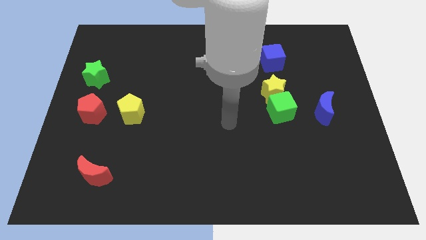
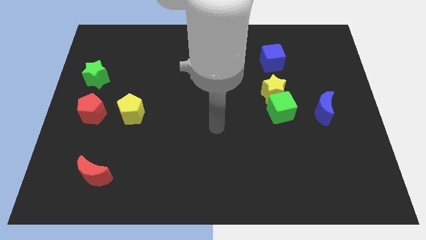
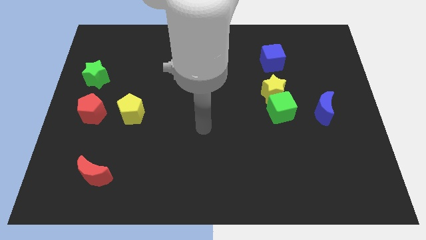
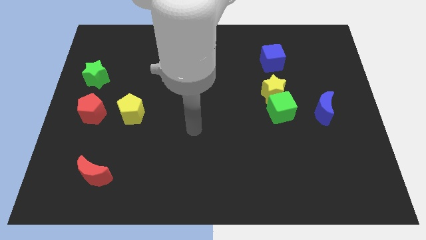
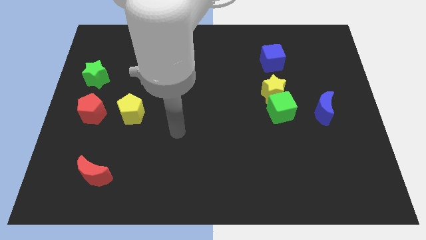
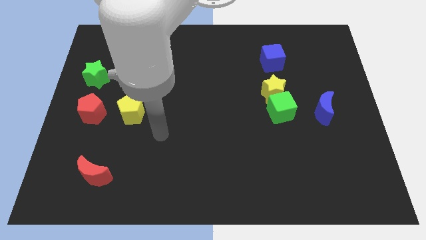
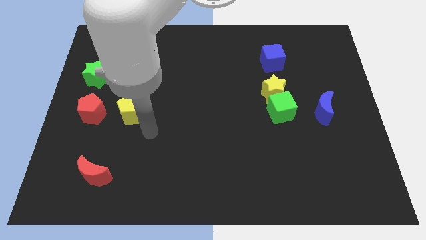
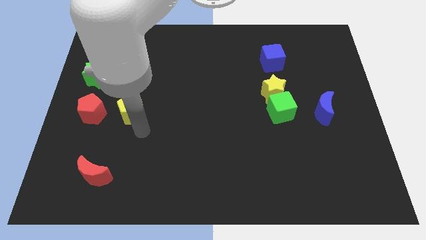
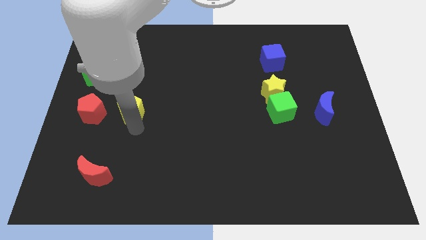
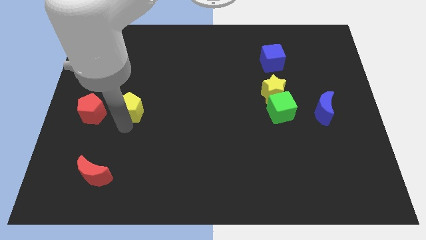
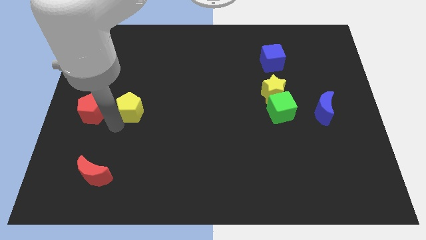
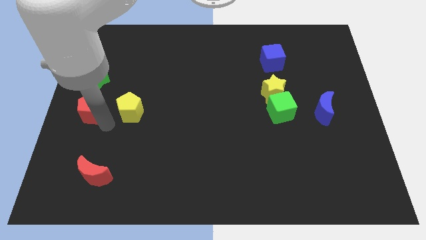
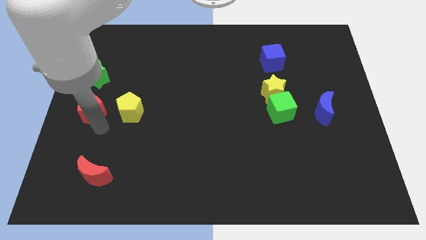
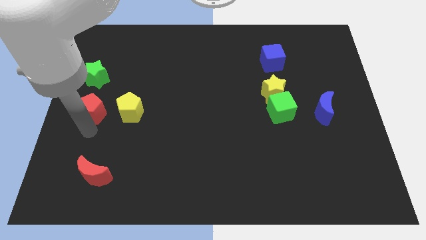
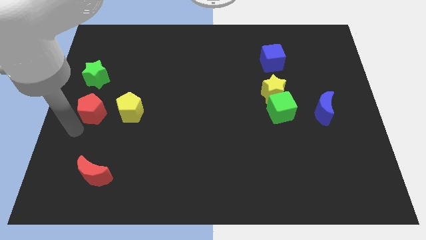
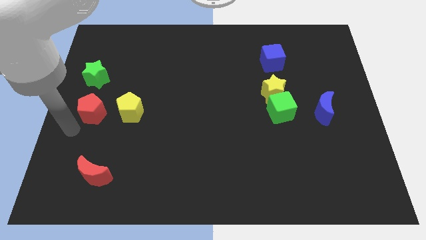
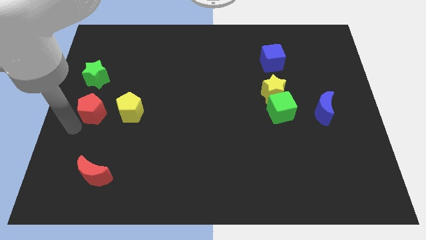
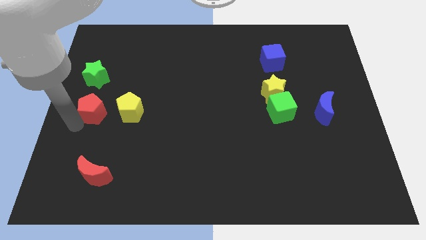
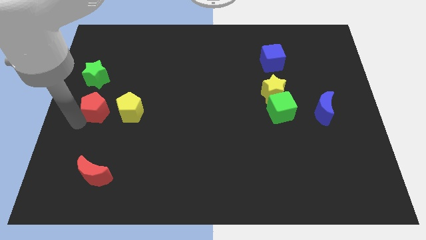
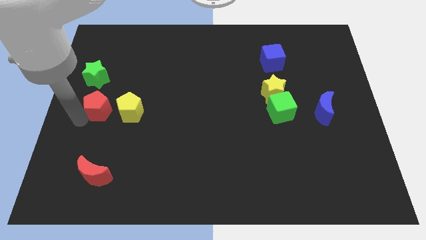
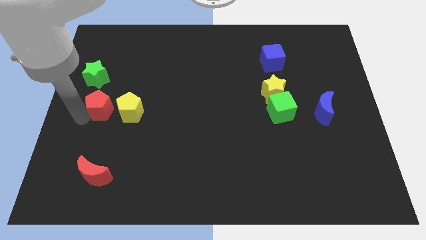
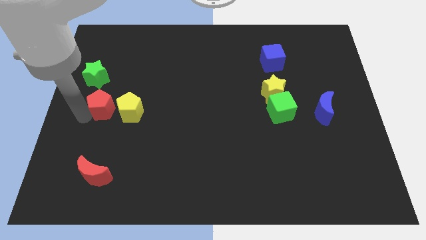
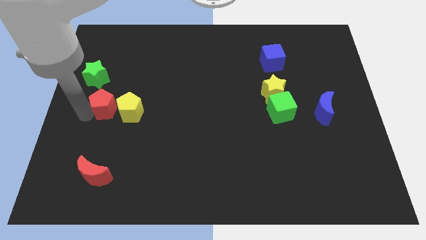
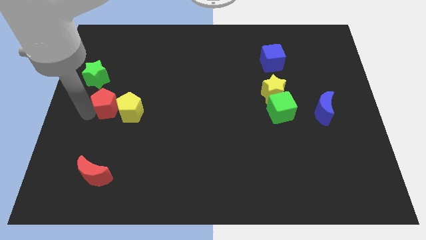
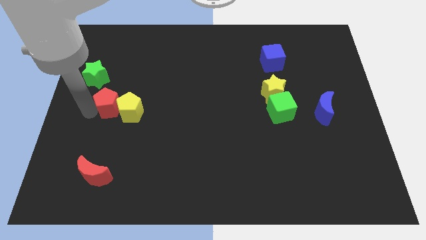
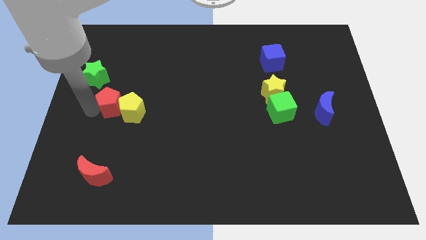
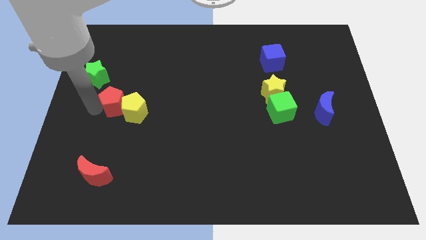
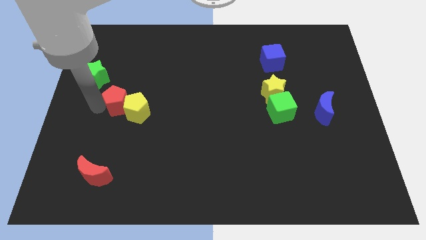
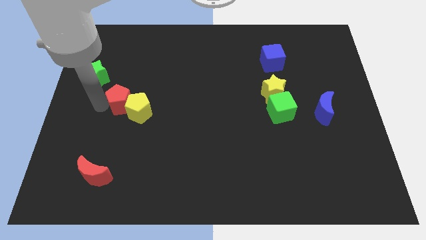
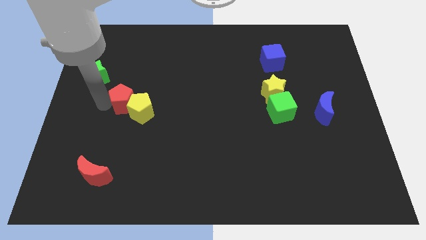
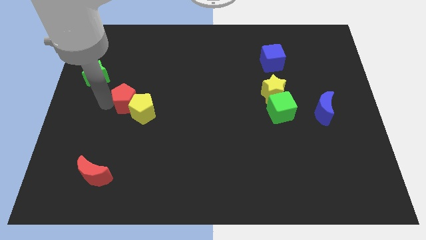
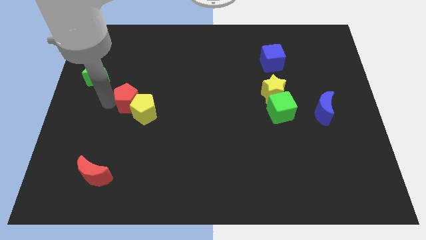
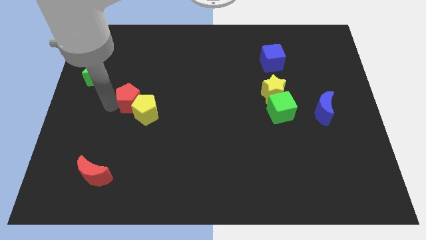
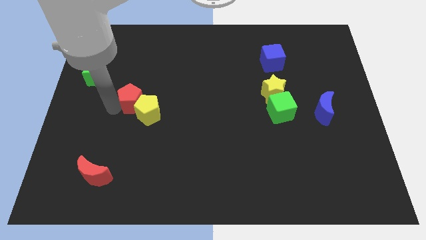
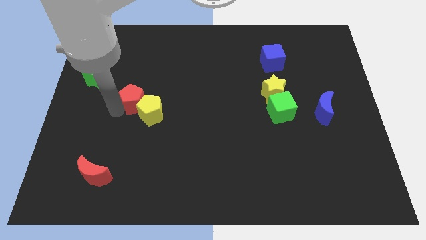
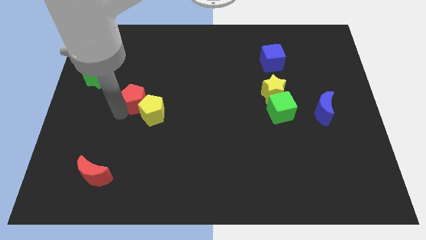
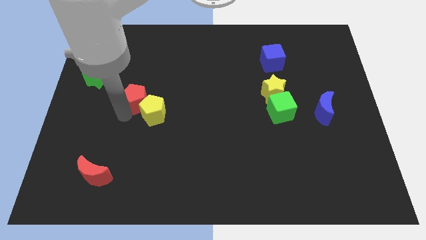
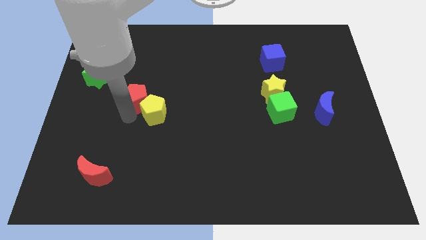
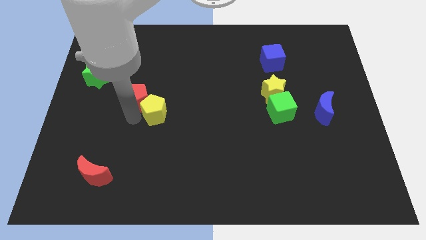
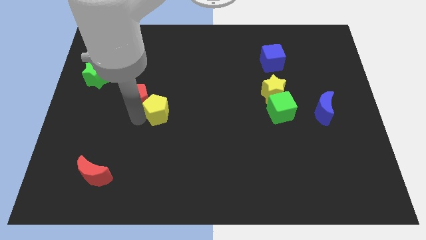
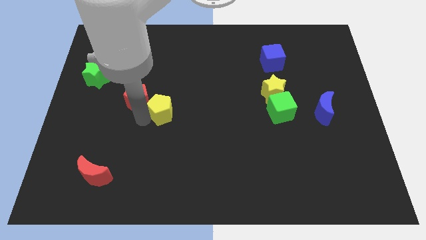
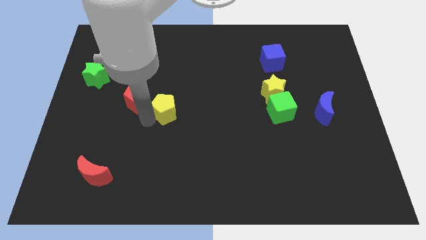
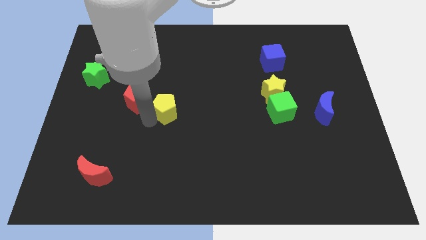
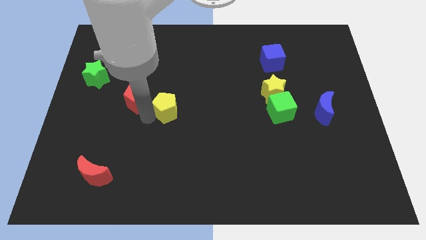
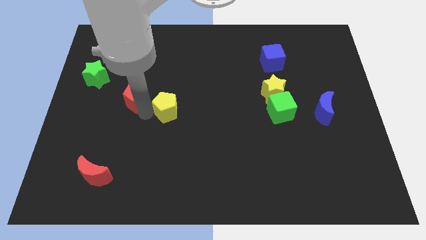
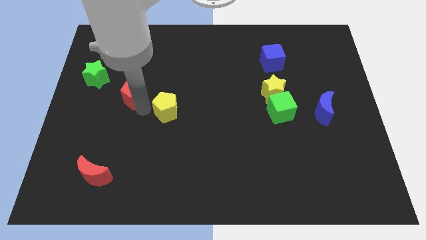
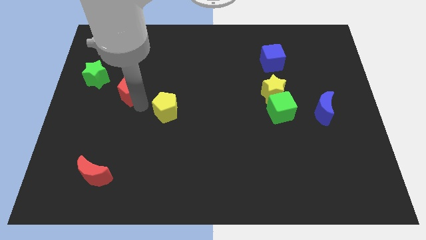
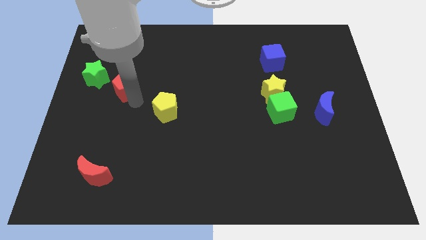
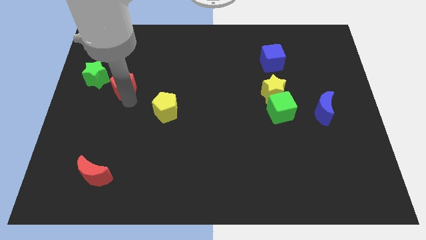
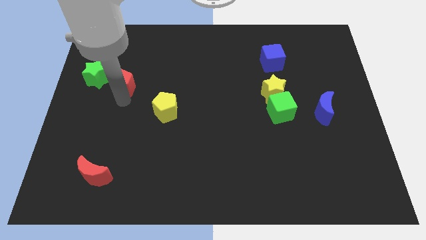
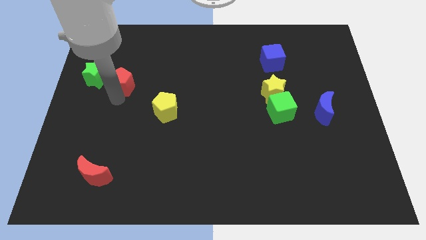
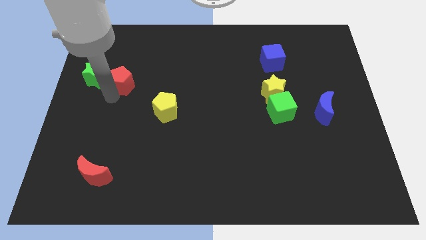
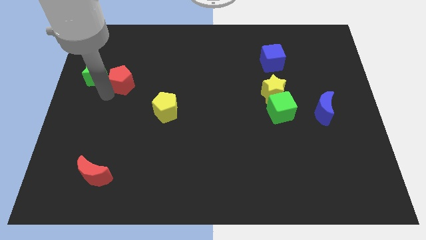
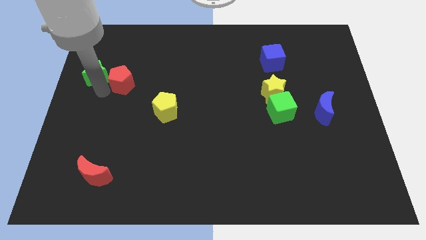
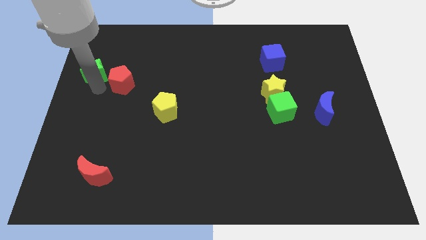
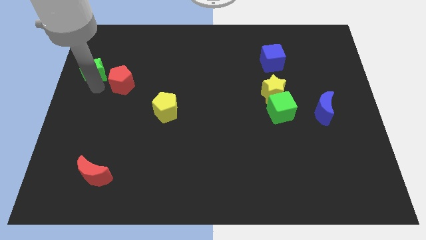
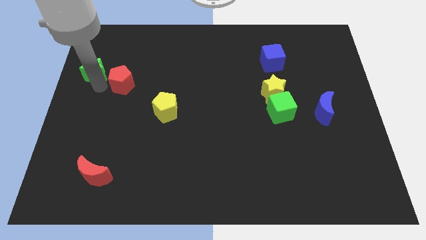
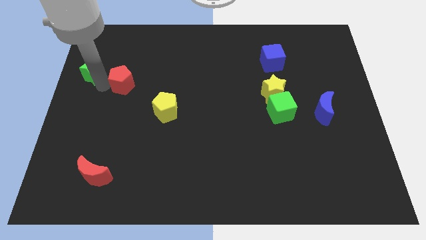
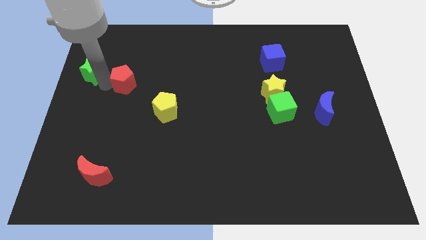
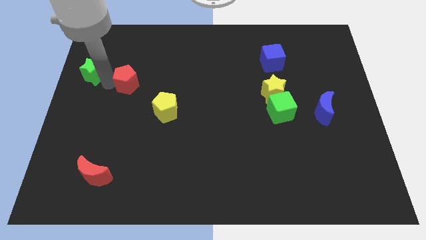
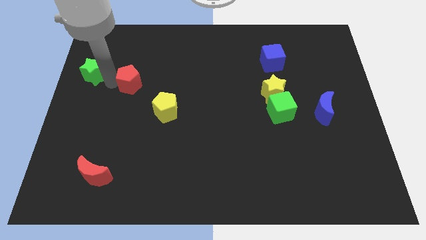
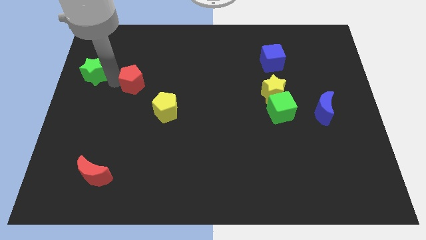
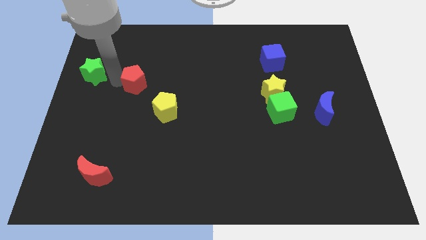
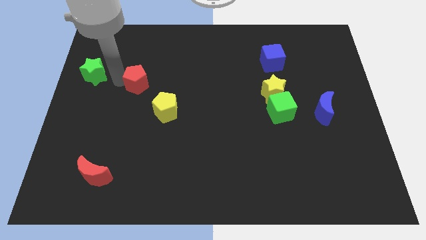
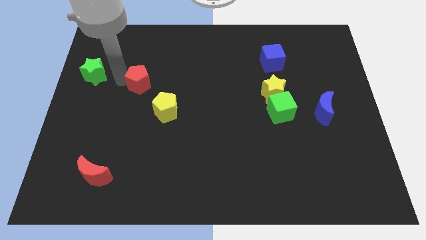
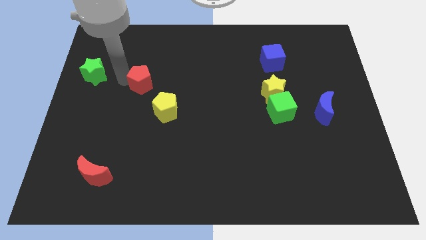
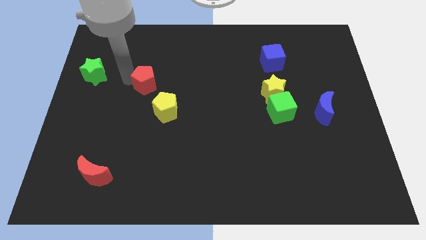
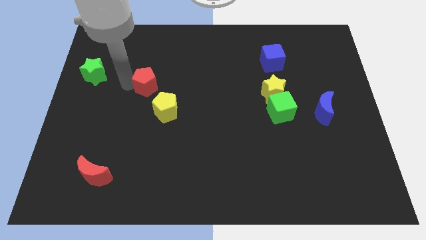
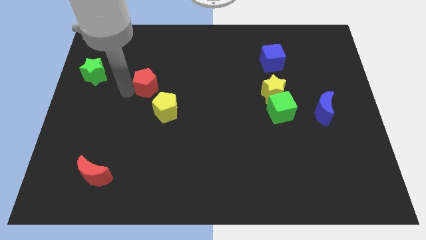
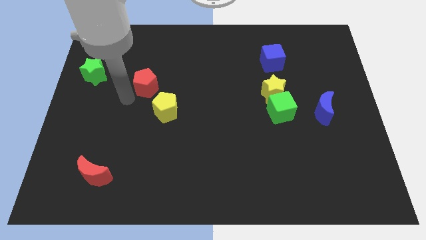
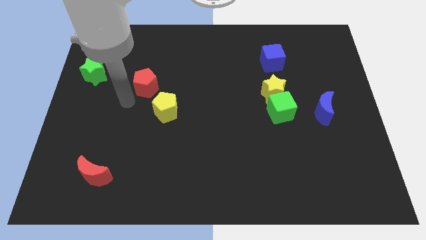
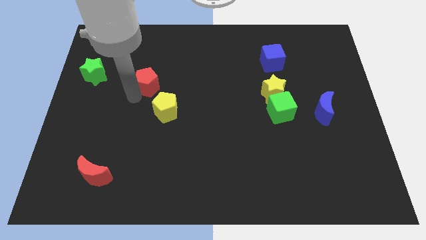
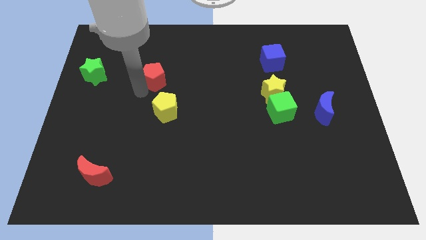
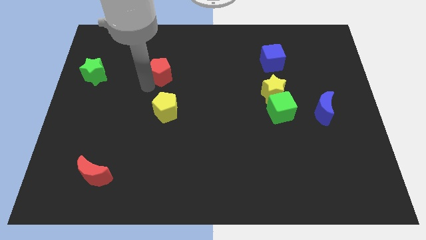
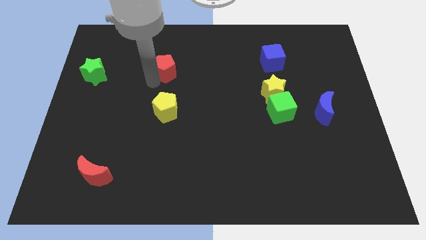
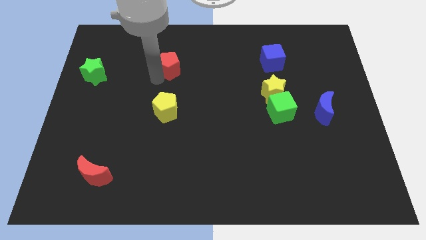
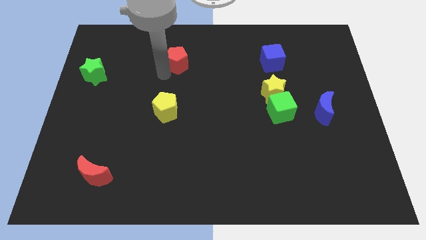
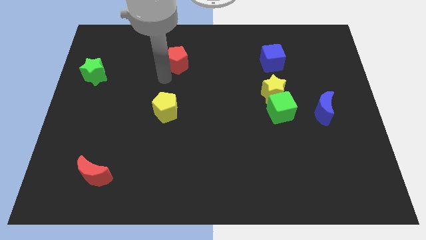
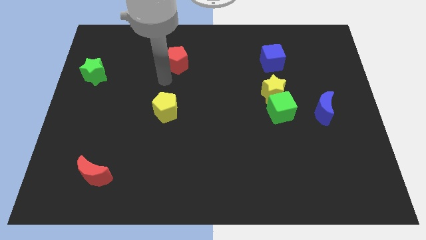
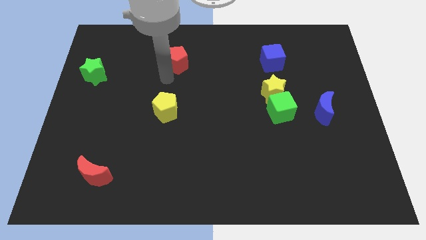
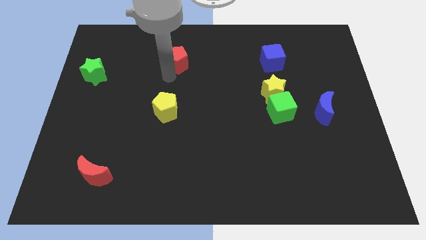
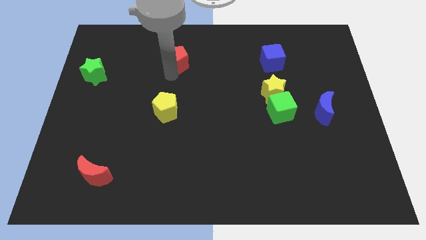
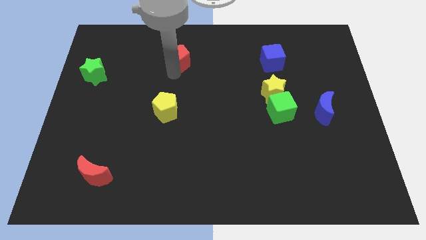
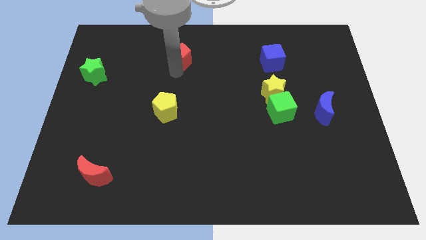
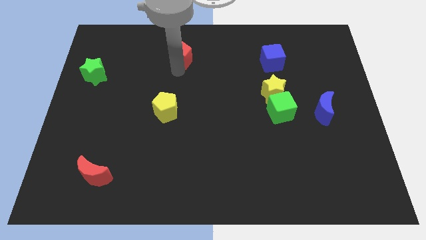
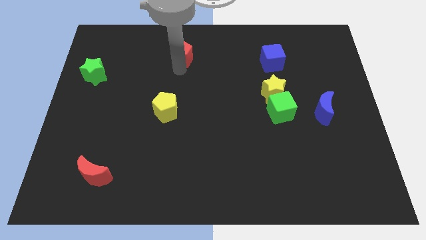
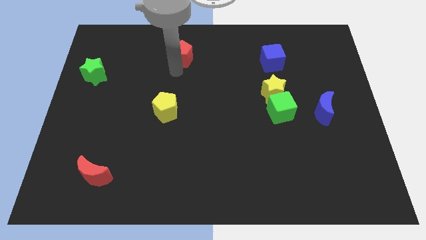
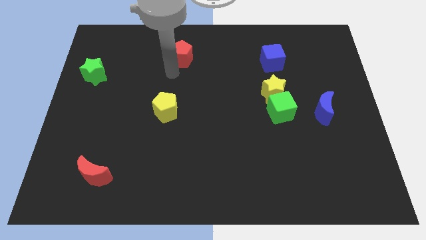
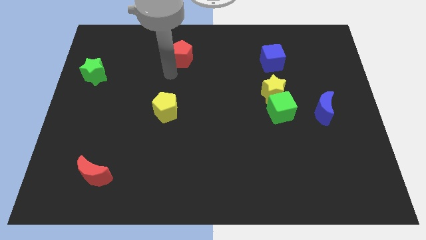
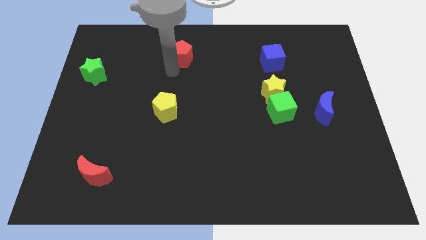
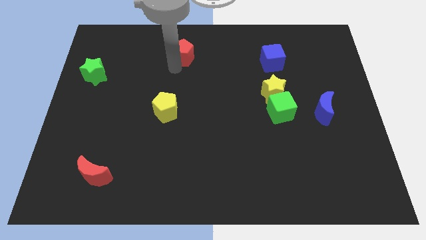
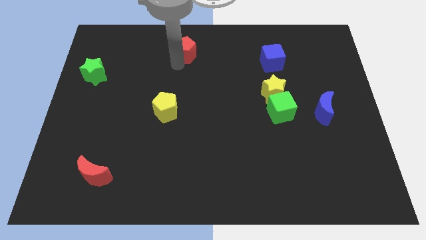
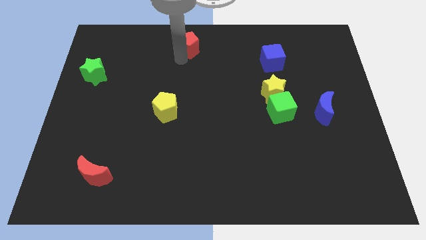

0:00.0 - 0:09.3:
move the red pentagon to the top side
